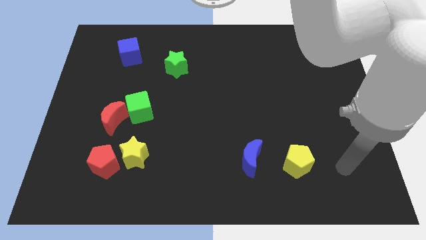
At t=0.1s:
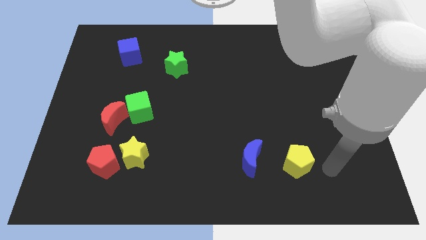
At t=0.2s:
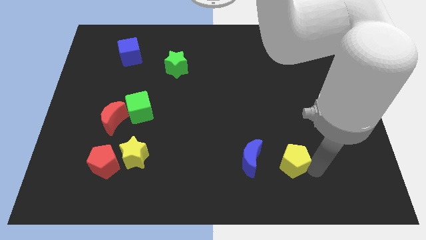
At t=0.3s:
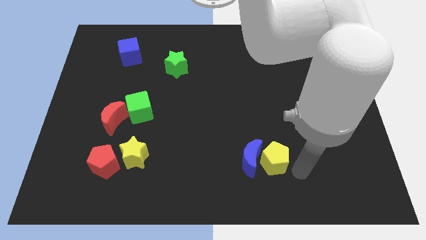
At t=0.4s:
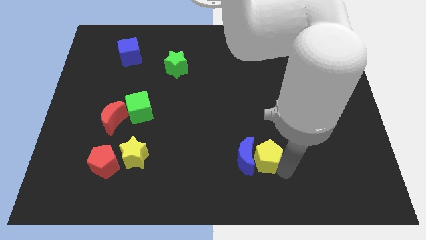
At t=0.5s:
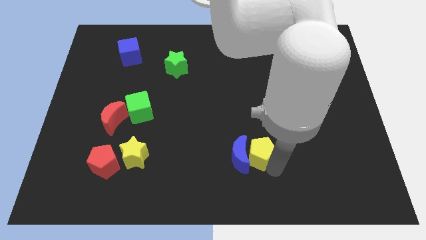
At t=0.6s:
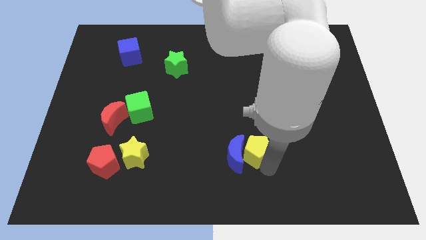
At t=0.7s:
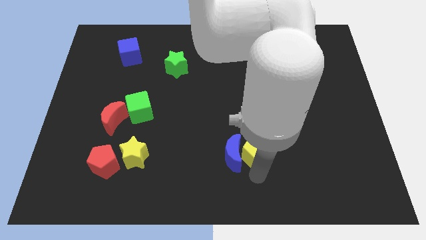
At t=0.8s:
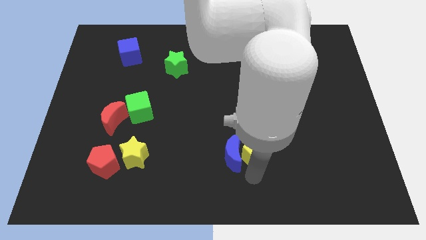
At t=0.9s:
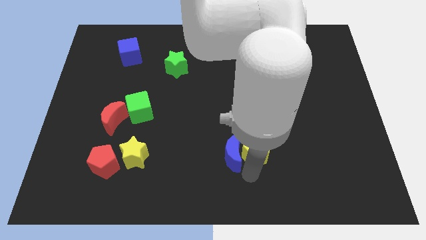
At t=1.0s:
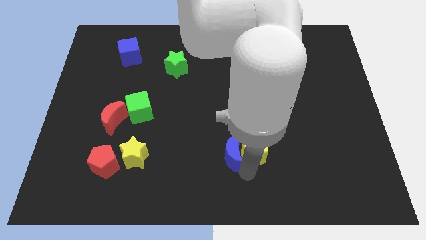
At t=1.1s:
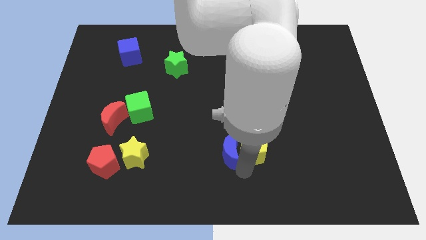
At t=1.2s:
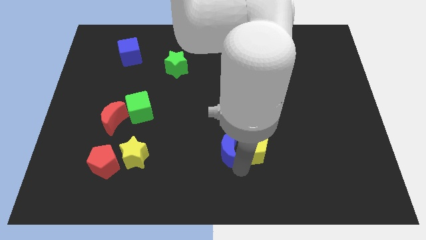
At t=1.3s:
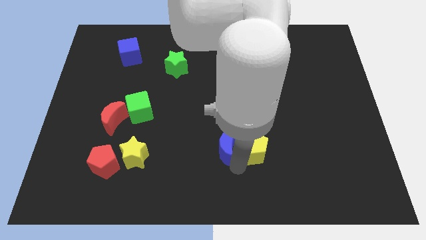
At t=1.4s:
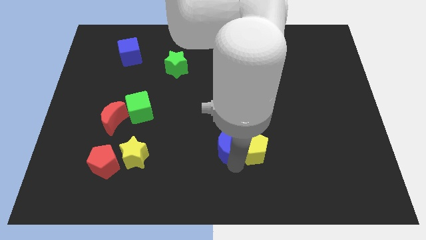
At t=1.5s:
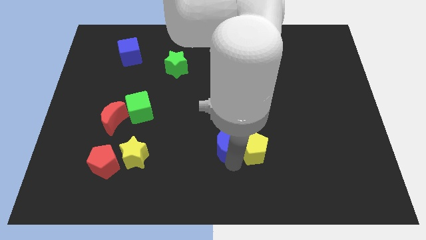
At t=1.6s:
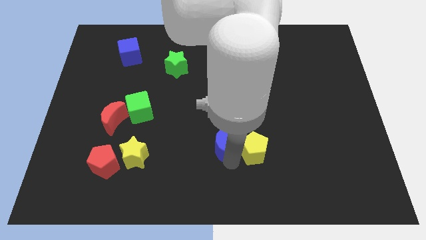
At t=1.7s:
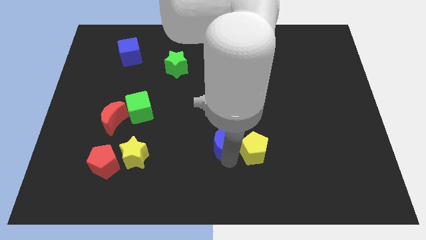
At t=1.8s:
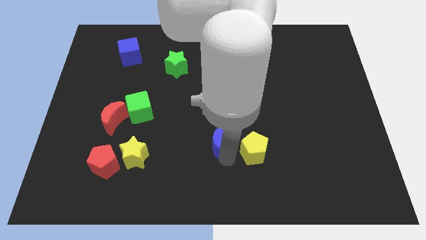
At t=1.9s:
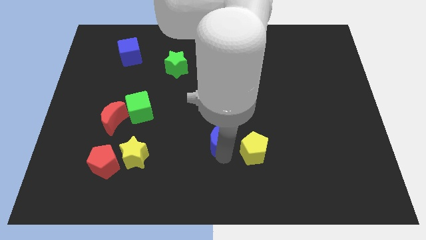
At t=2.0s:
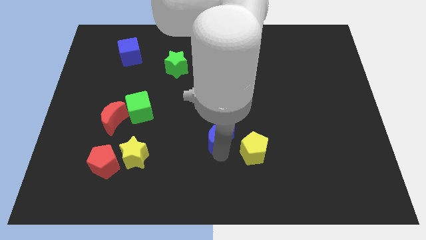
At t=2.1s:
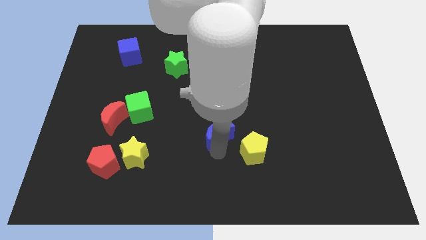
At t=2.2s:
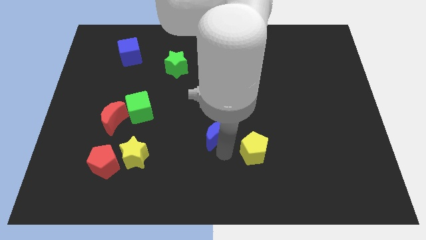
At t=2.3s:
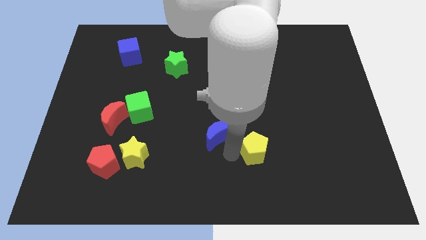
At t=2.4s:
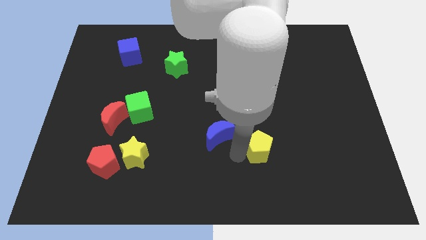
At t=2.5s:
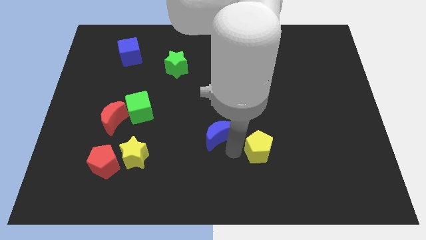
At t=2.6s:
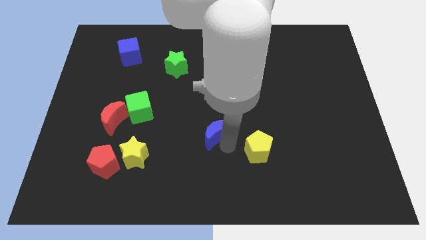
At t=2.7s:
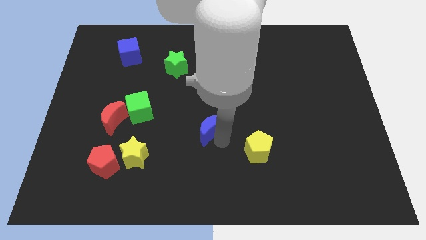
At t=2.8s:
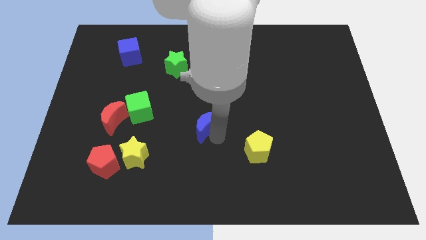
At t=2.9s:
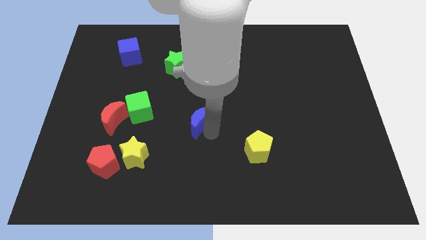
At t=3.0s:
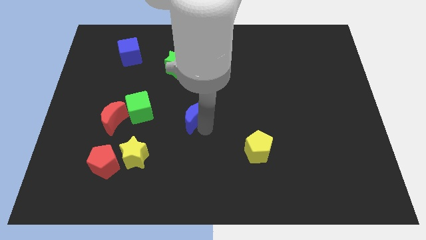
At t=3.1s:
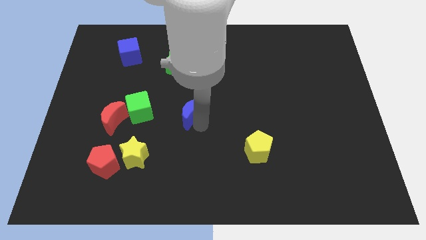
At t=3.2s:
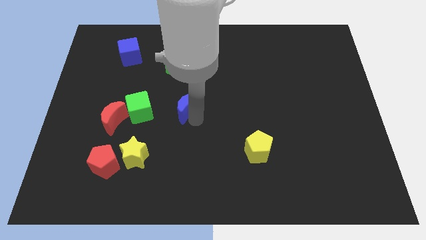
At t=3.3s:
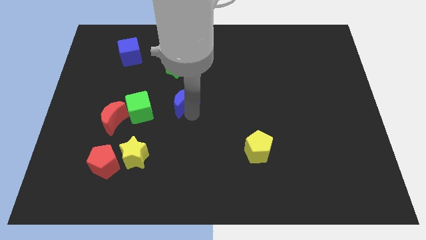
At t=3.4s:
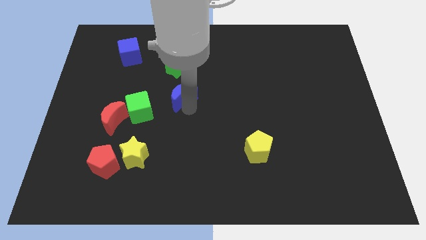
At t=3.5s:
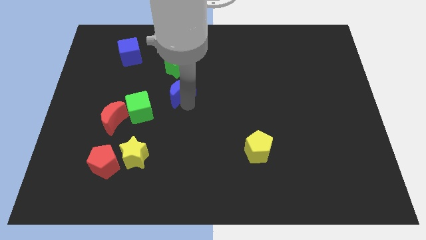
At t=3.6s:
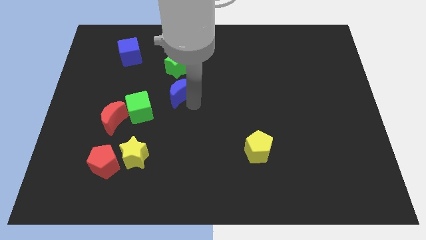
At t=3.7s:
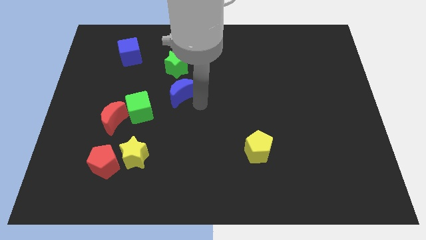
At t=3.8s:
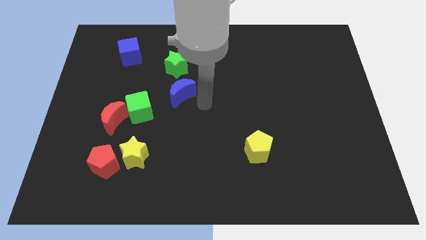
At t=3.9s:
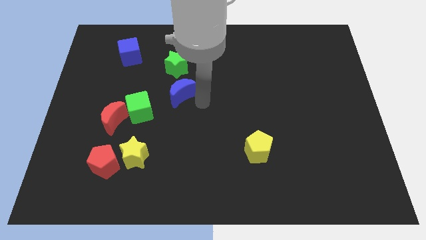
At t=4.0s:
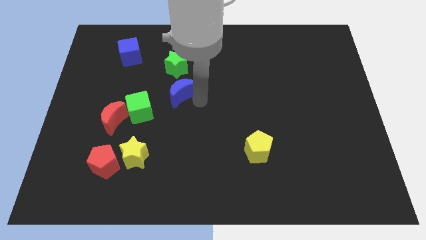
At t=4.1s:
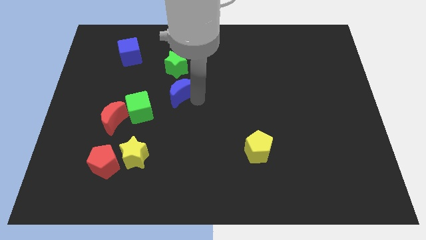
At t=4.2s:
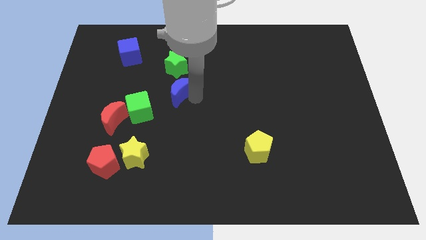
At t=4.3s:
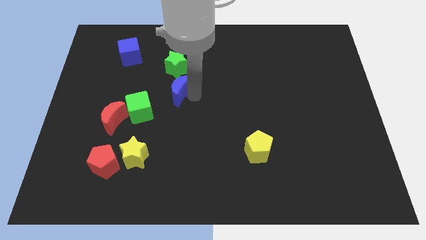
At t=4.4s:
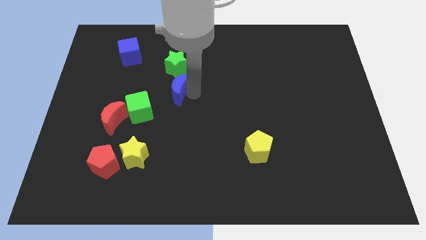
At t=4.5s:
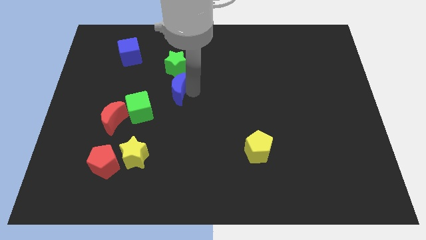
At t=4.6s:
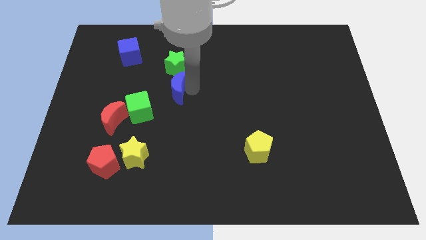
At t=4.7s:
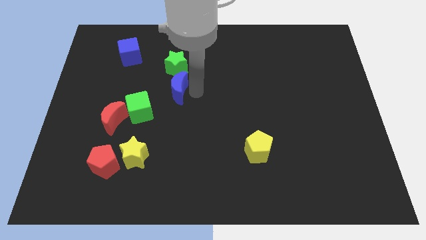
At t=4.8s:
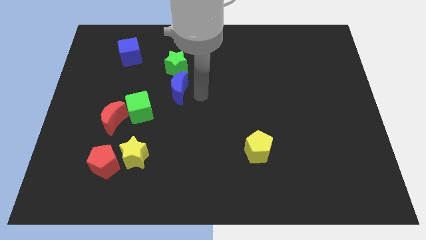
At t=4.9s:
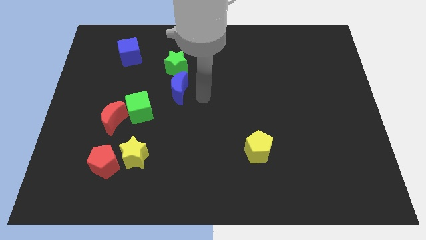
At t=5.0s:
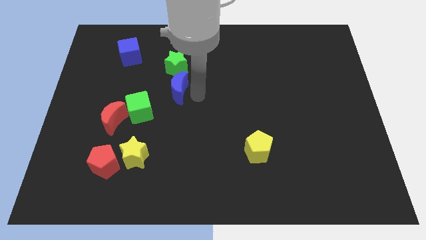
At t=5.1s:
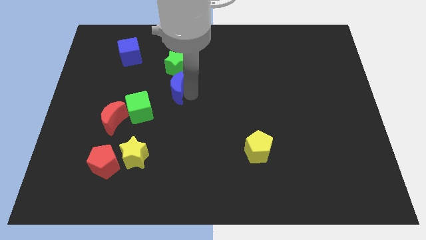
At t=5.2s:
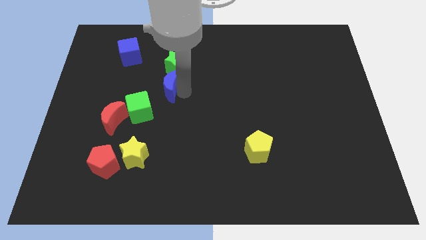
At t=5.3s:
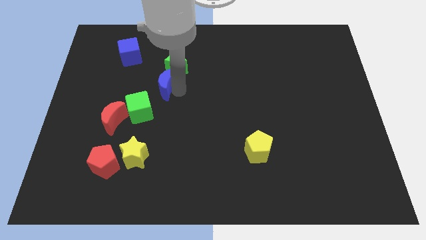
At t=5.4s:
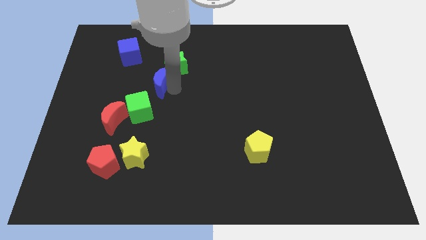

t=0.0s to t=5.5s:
push the blue moon to the top of the green cube

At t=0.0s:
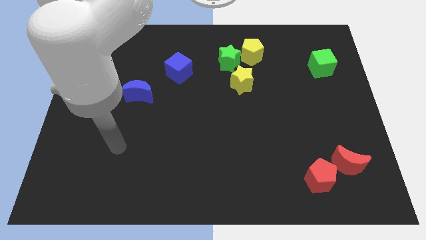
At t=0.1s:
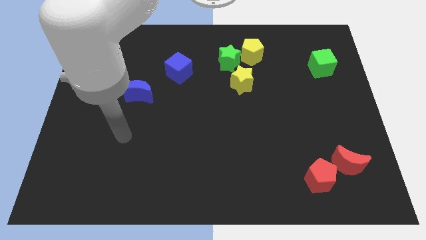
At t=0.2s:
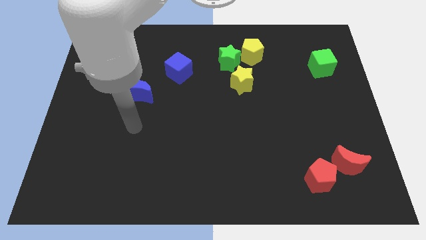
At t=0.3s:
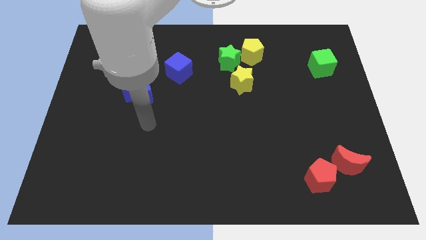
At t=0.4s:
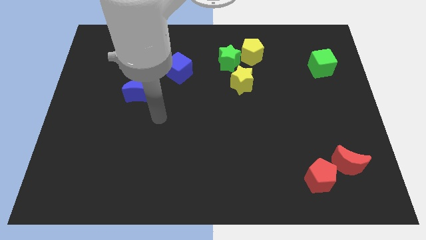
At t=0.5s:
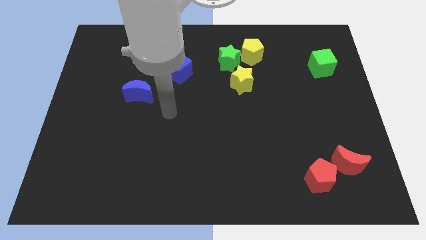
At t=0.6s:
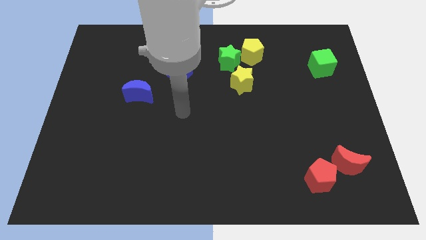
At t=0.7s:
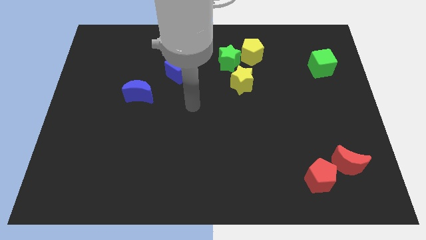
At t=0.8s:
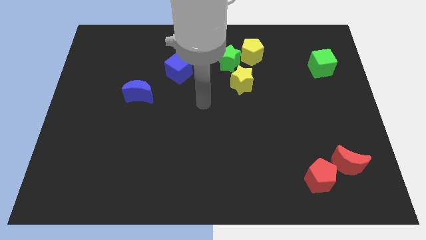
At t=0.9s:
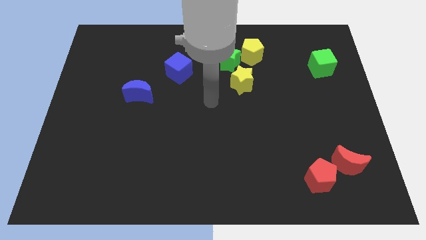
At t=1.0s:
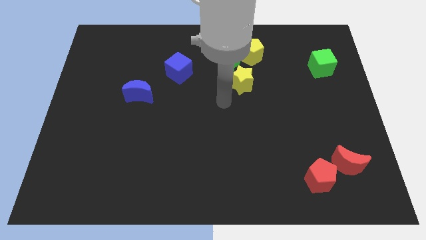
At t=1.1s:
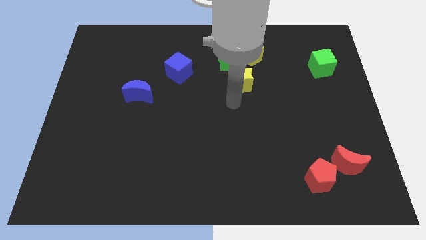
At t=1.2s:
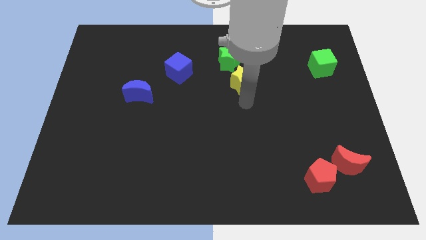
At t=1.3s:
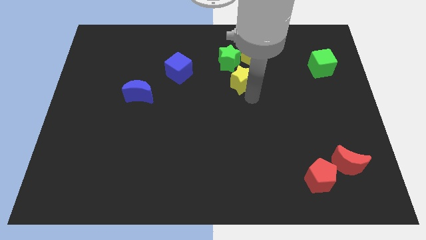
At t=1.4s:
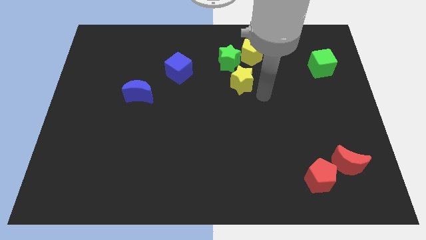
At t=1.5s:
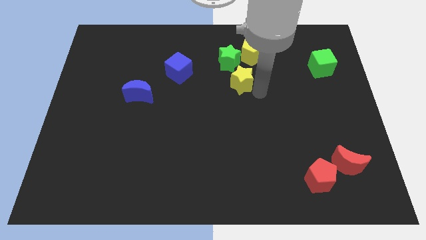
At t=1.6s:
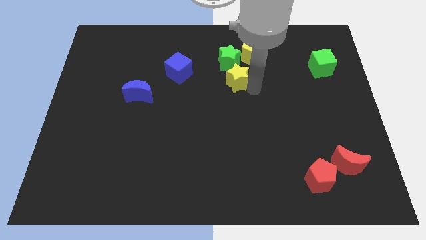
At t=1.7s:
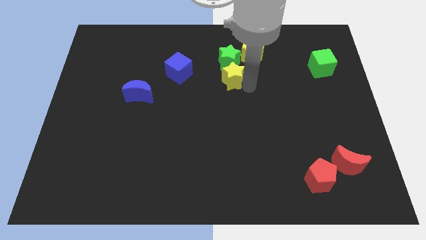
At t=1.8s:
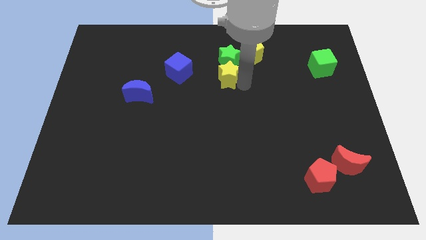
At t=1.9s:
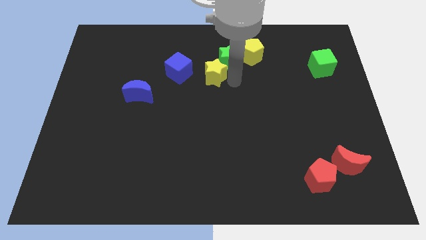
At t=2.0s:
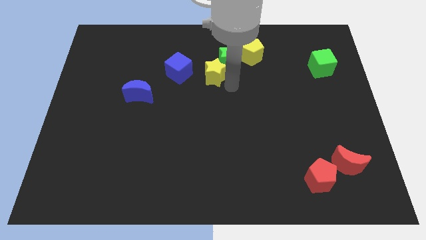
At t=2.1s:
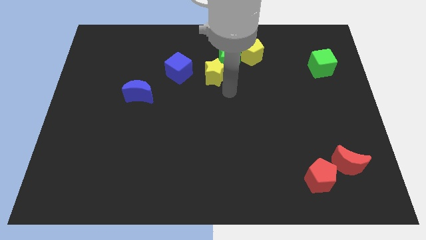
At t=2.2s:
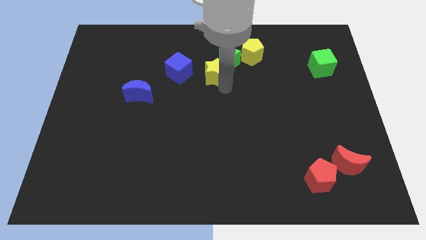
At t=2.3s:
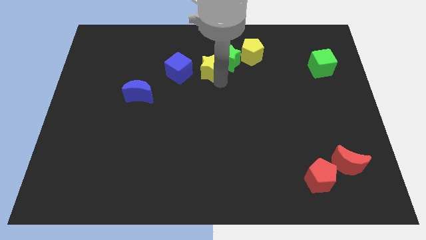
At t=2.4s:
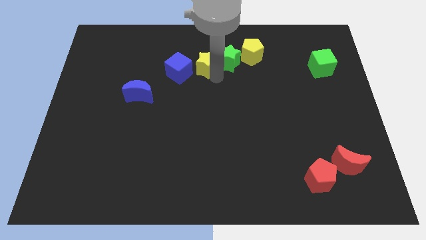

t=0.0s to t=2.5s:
push the yellow star to the top right of the blue cube
